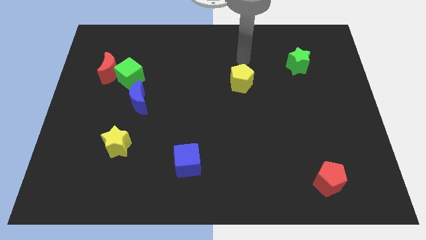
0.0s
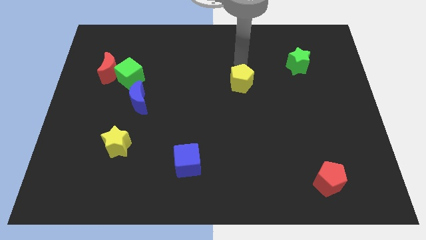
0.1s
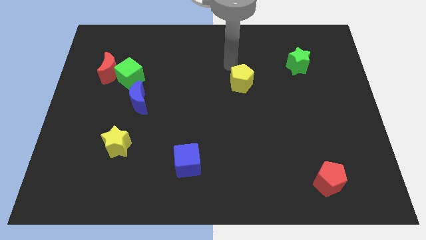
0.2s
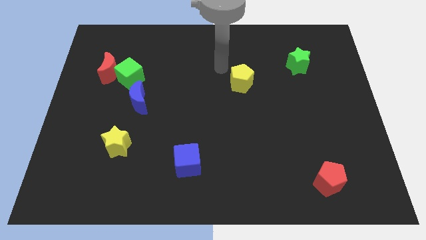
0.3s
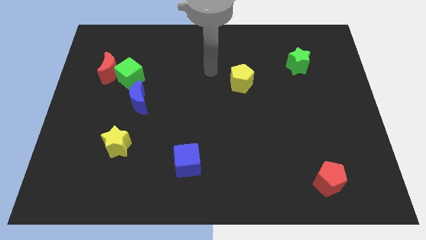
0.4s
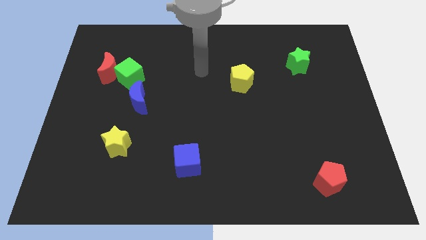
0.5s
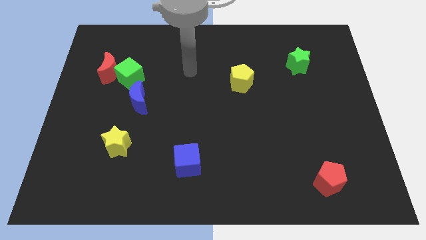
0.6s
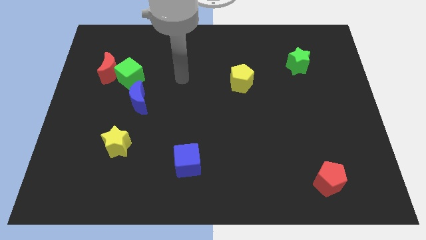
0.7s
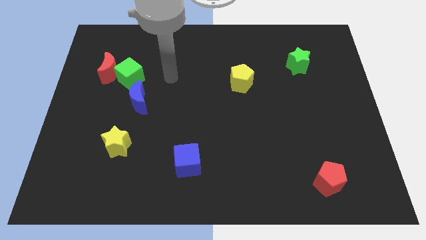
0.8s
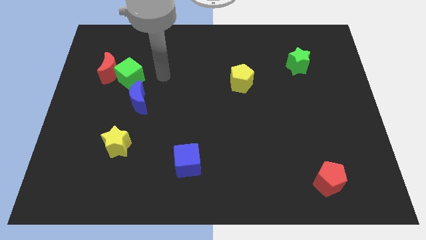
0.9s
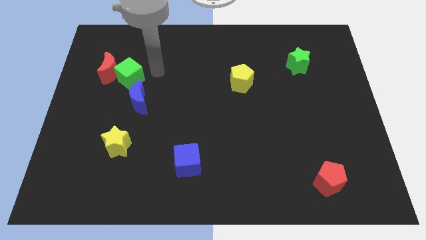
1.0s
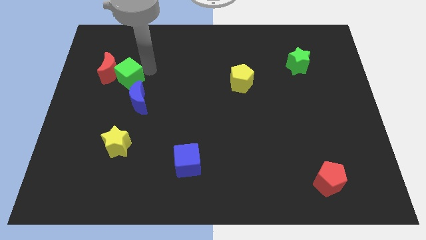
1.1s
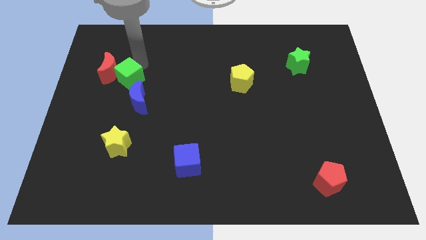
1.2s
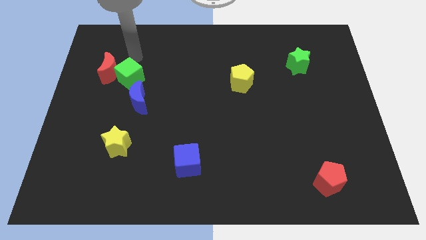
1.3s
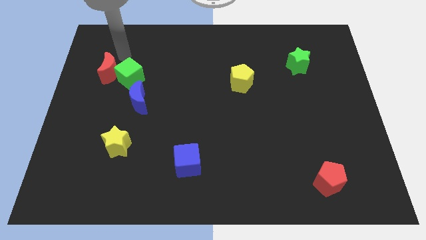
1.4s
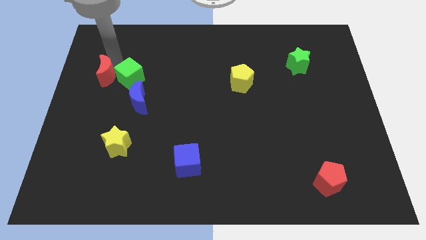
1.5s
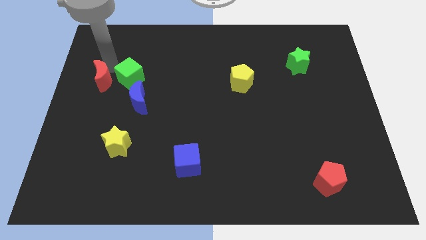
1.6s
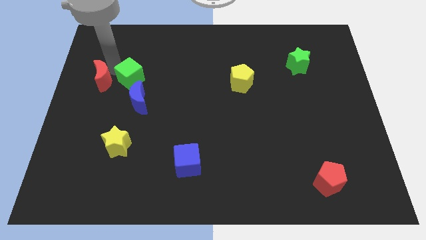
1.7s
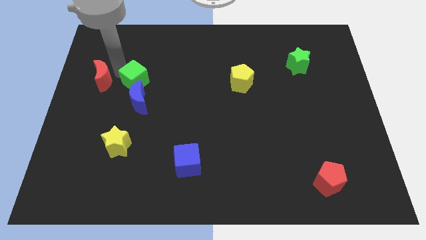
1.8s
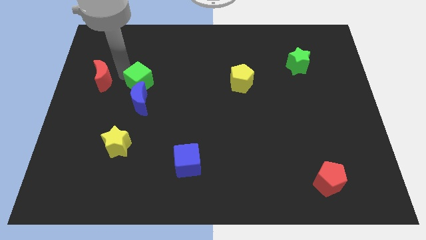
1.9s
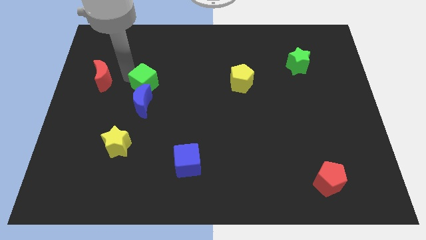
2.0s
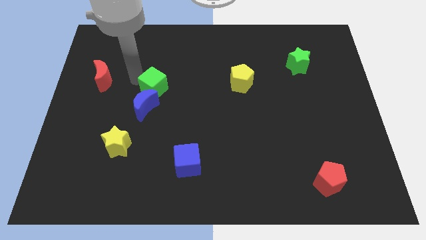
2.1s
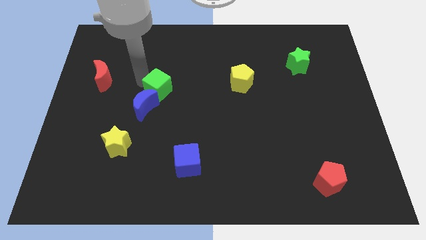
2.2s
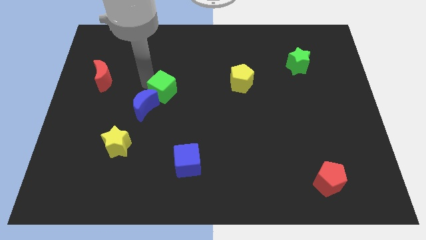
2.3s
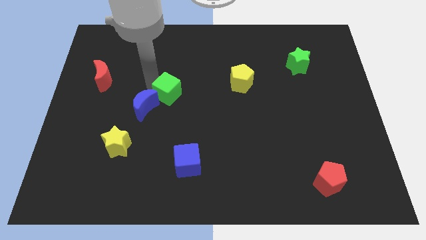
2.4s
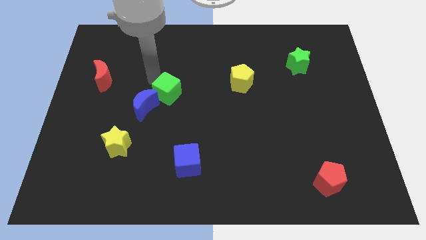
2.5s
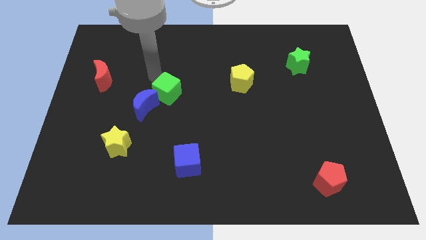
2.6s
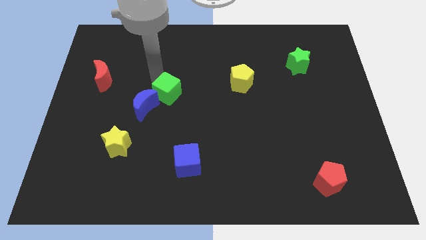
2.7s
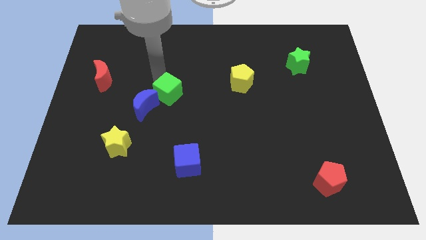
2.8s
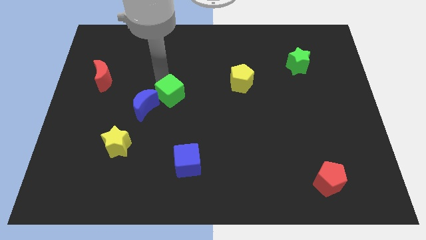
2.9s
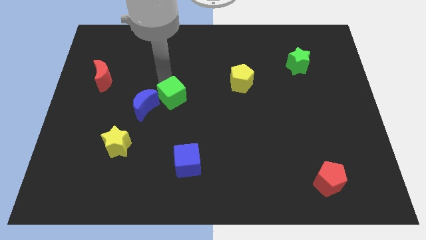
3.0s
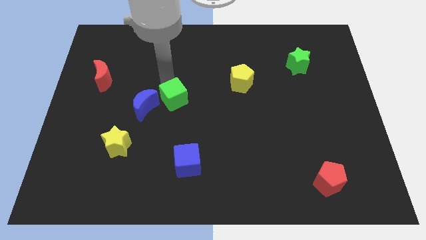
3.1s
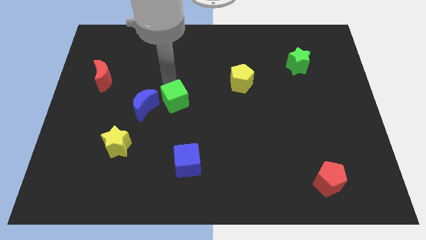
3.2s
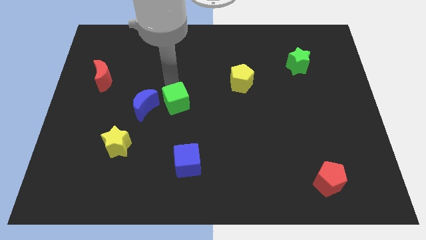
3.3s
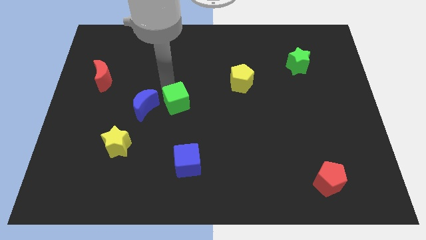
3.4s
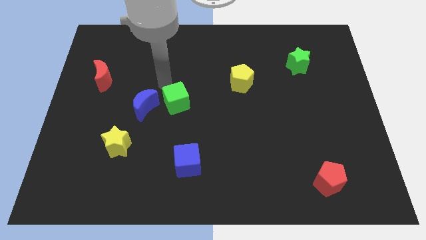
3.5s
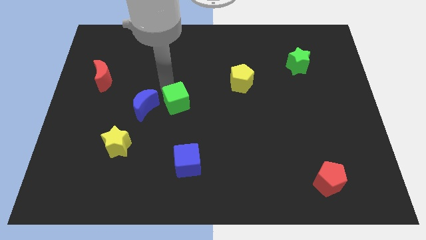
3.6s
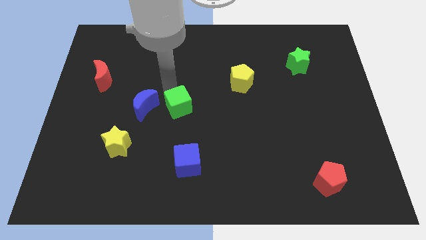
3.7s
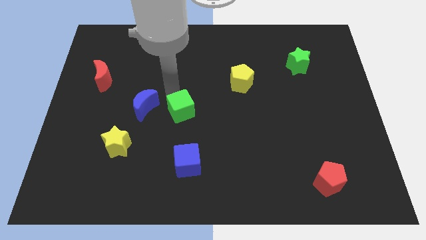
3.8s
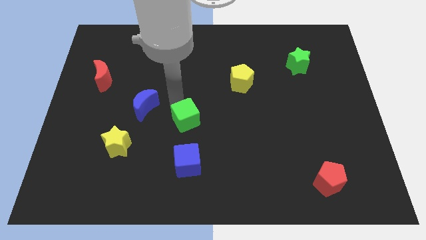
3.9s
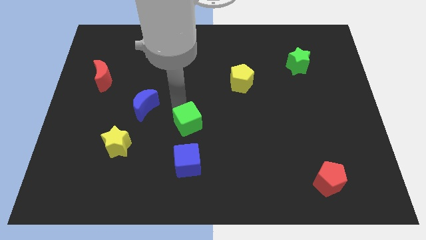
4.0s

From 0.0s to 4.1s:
move the green cube downwards and then to the right

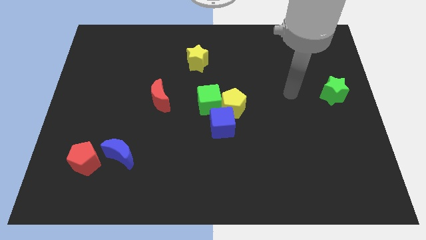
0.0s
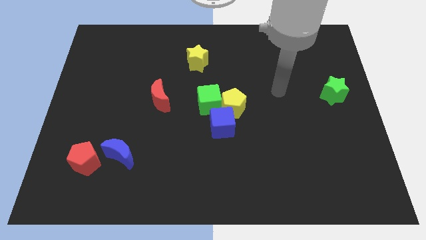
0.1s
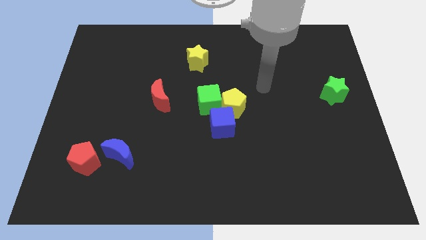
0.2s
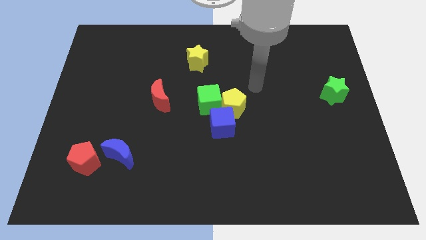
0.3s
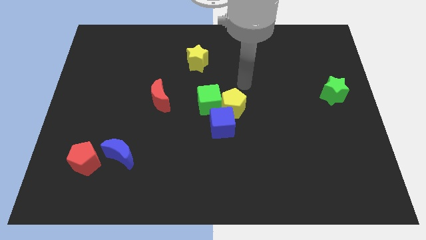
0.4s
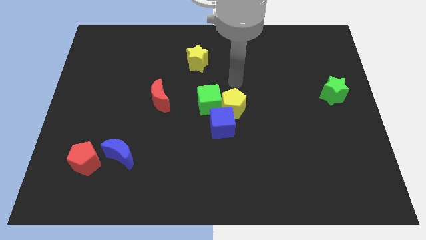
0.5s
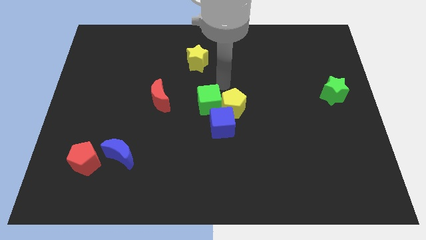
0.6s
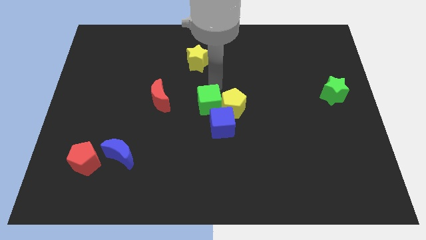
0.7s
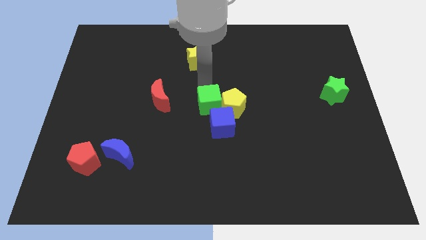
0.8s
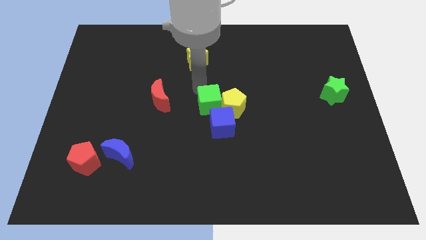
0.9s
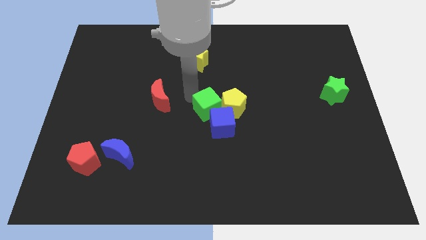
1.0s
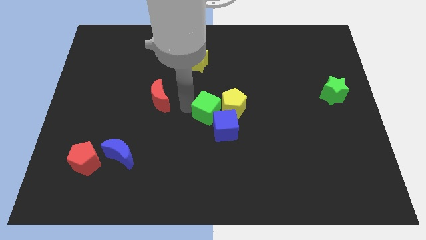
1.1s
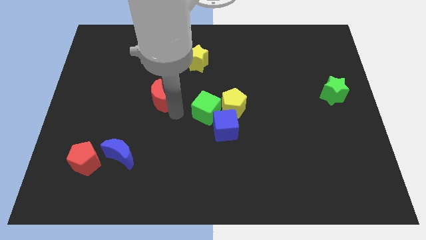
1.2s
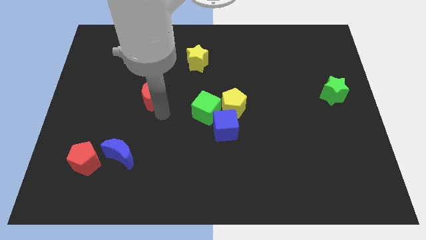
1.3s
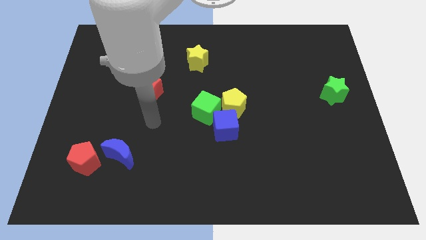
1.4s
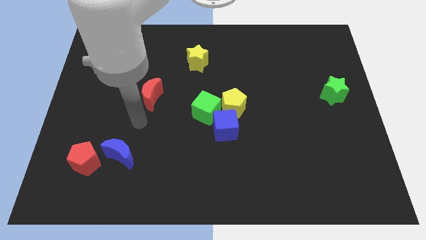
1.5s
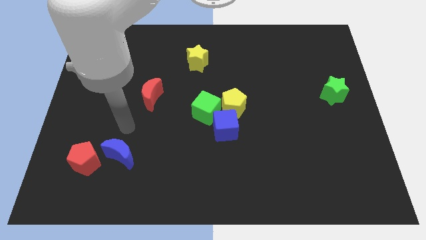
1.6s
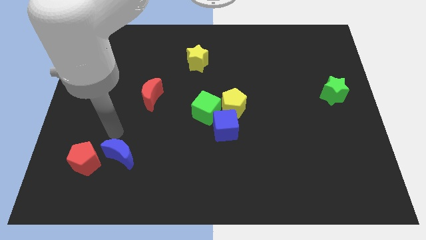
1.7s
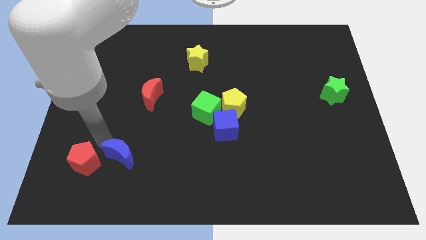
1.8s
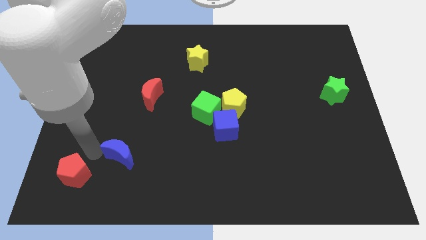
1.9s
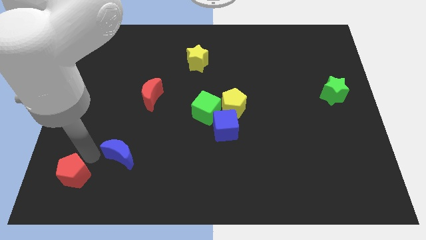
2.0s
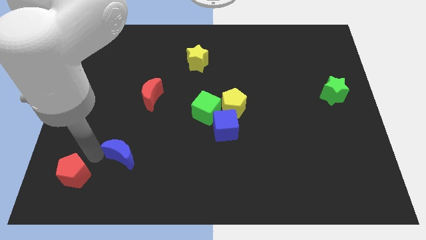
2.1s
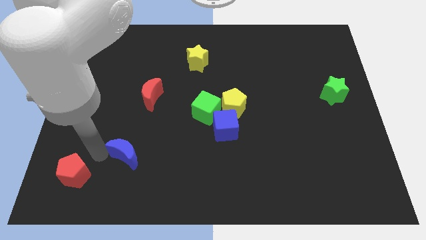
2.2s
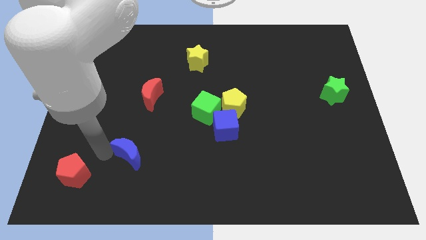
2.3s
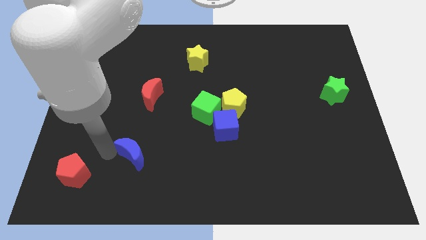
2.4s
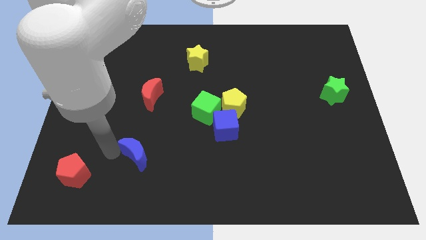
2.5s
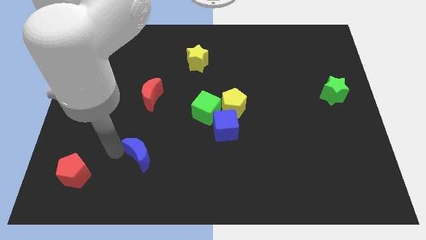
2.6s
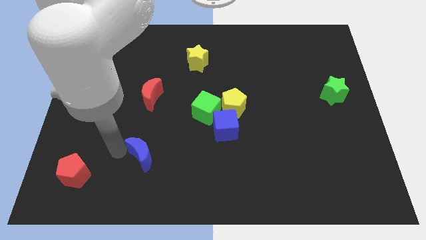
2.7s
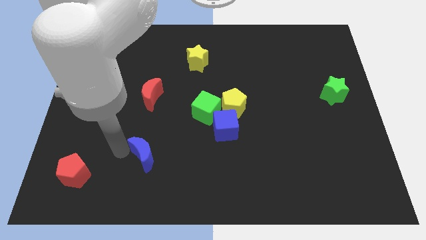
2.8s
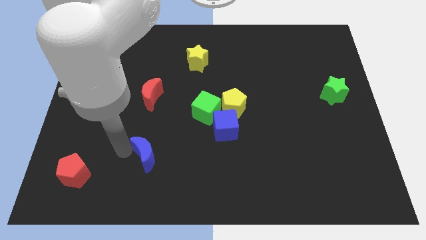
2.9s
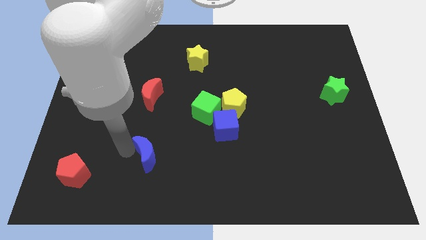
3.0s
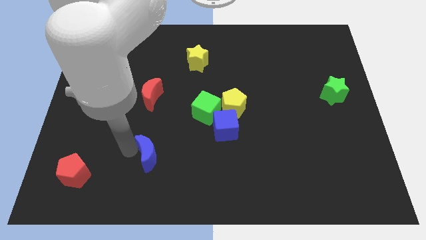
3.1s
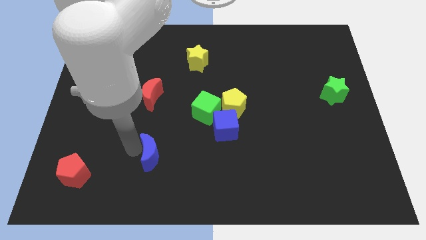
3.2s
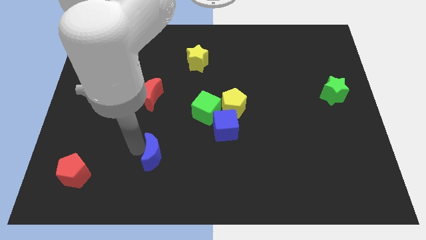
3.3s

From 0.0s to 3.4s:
move the blue moon right a little

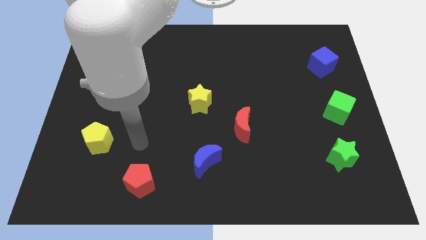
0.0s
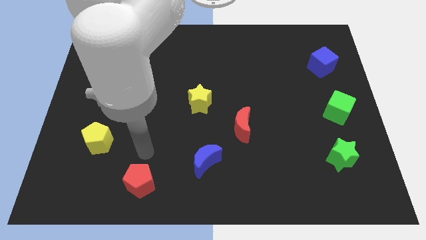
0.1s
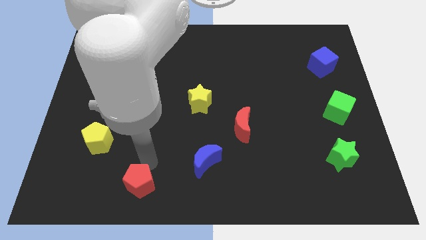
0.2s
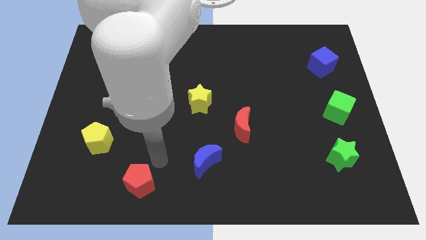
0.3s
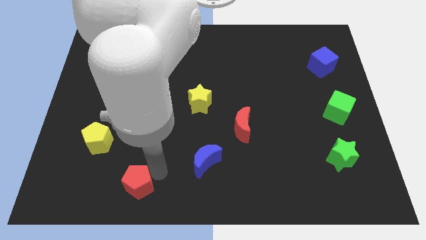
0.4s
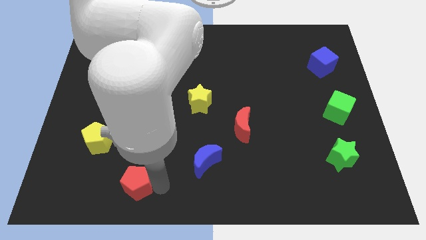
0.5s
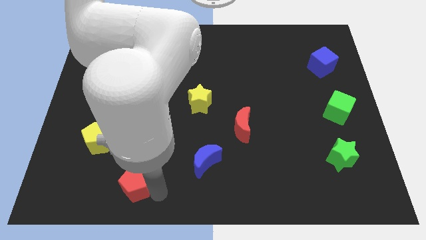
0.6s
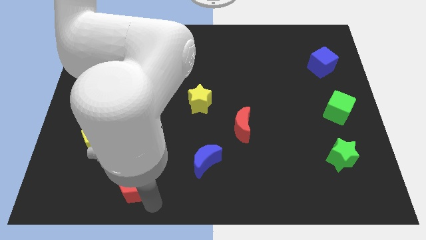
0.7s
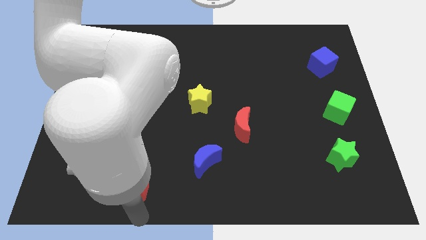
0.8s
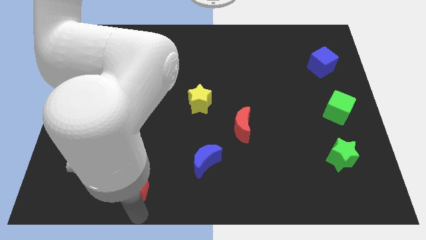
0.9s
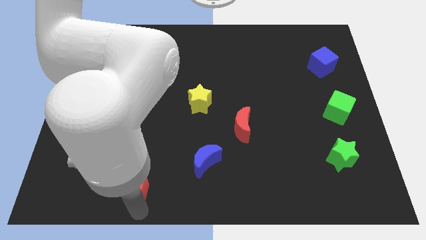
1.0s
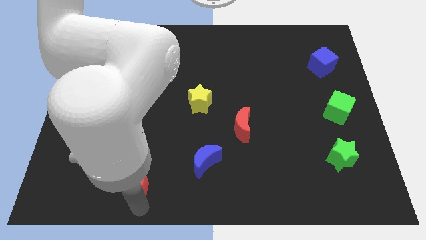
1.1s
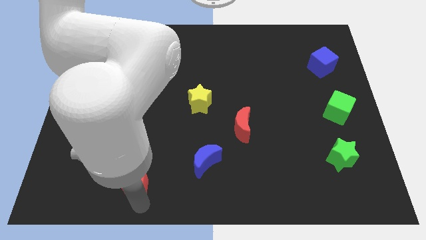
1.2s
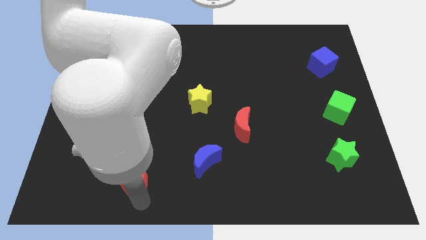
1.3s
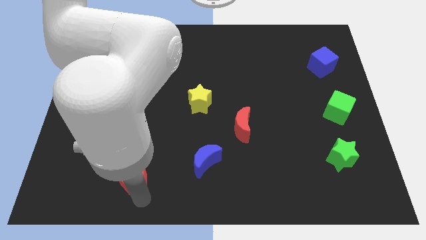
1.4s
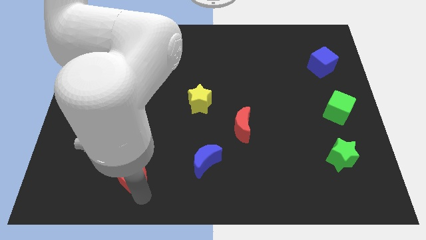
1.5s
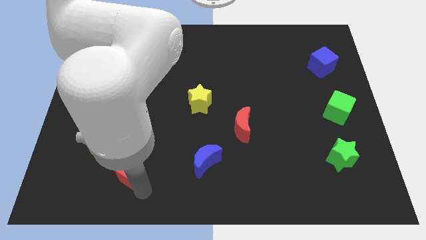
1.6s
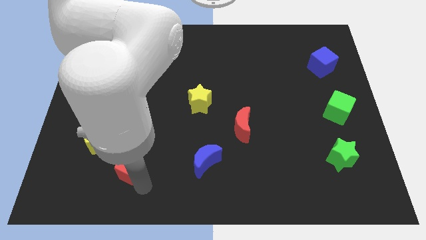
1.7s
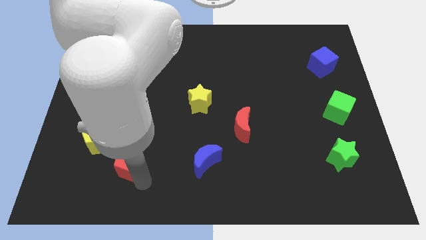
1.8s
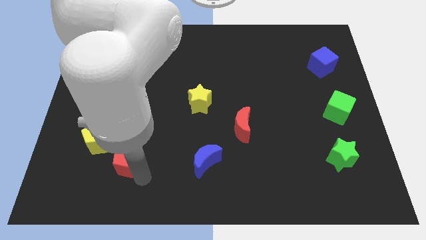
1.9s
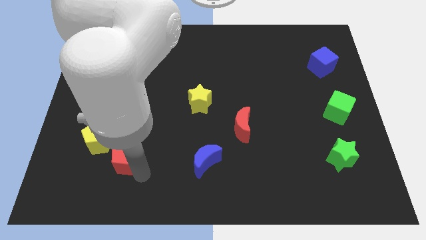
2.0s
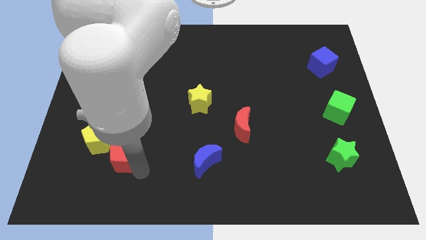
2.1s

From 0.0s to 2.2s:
push the red pentagon up and then left a little
